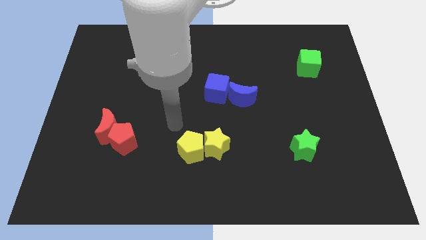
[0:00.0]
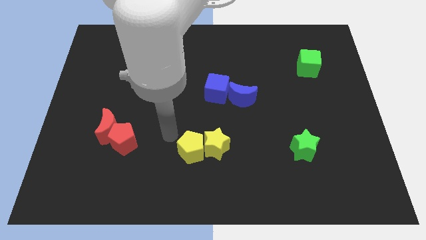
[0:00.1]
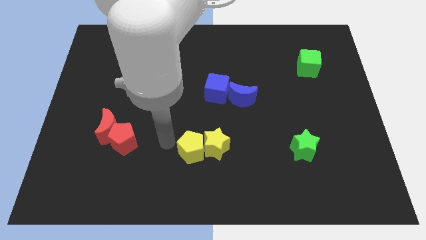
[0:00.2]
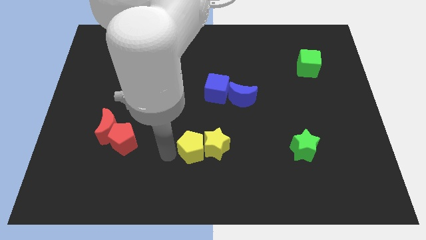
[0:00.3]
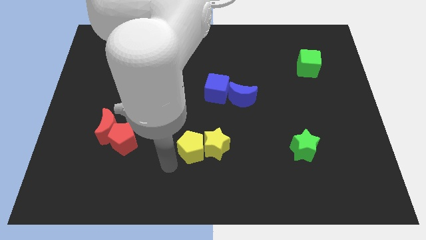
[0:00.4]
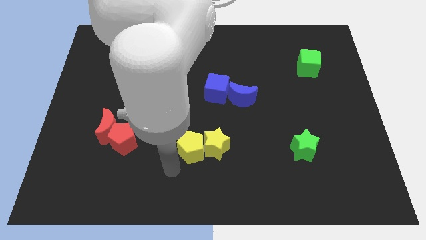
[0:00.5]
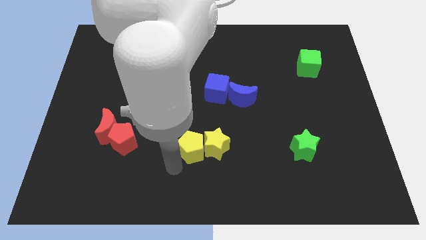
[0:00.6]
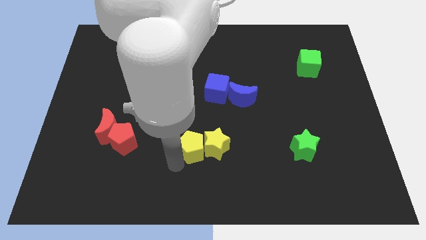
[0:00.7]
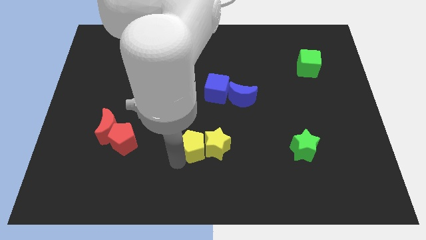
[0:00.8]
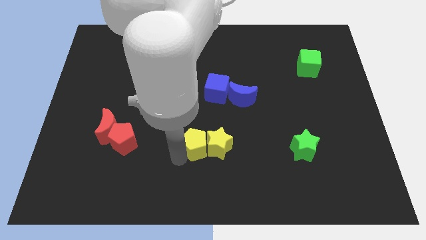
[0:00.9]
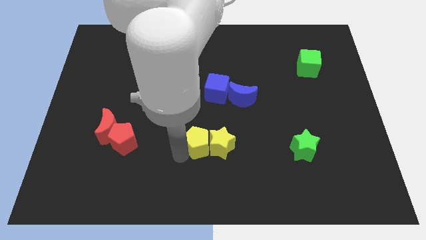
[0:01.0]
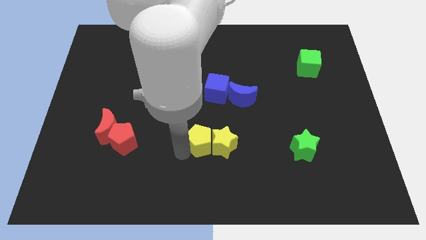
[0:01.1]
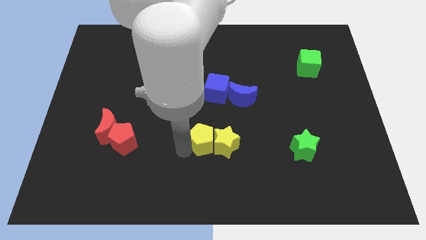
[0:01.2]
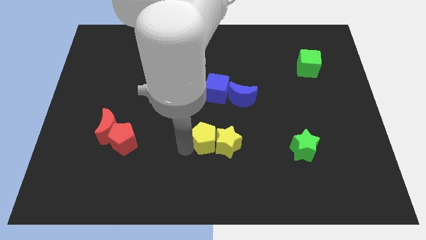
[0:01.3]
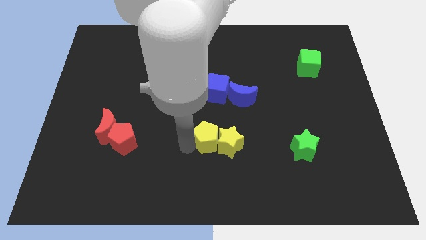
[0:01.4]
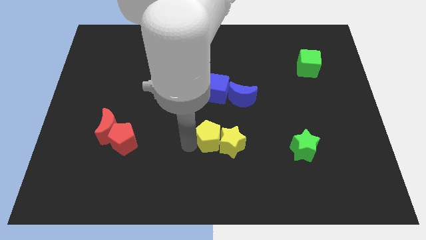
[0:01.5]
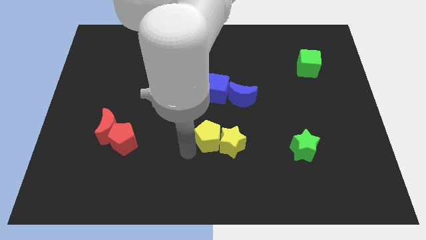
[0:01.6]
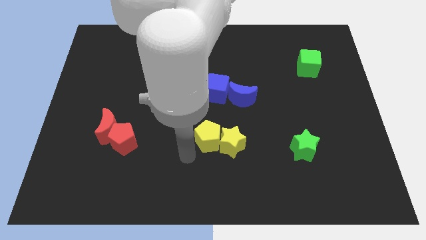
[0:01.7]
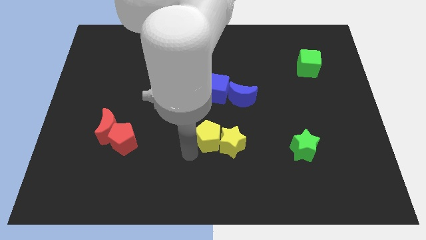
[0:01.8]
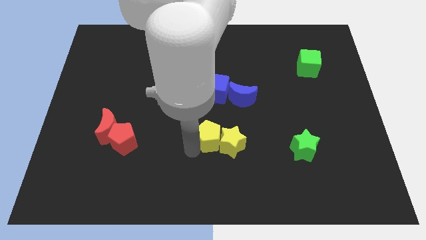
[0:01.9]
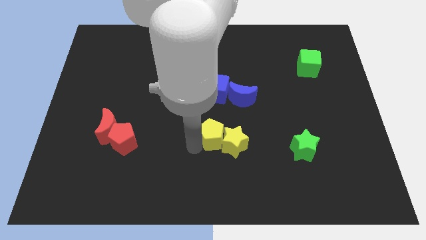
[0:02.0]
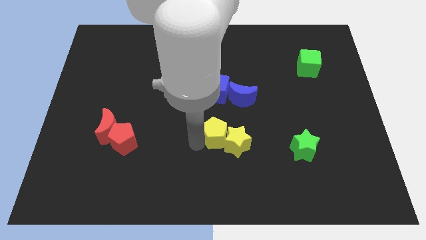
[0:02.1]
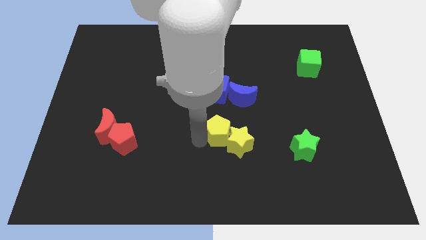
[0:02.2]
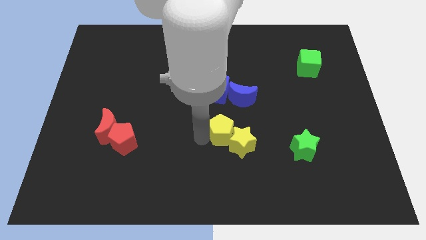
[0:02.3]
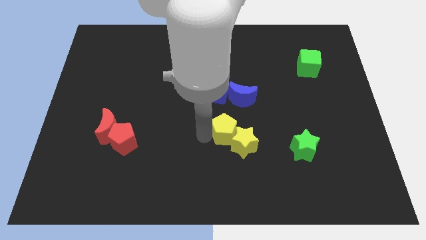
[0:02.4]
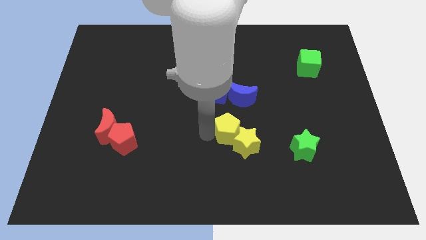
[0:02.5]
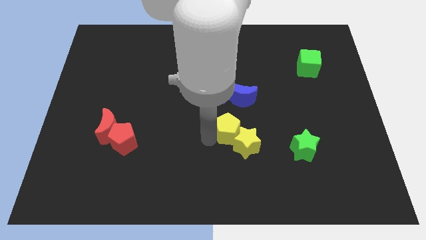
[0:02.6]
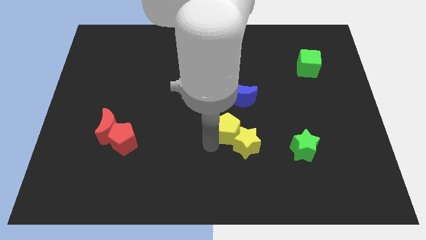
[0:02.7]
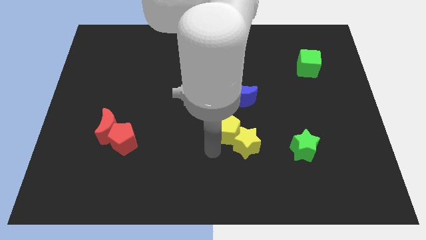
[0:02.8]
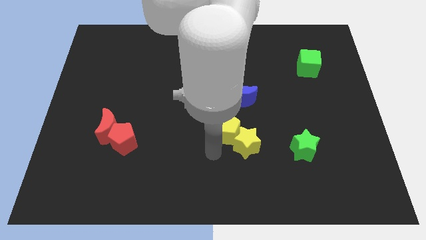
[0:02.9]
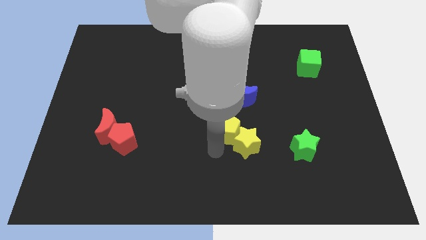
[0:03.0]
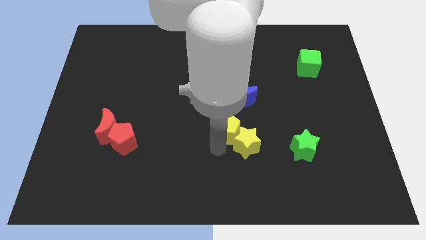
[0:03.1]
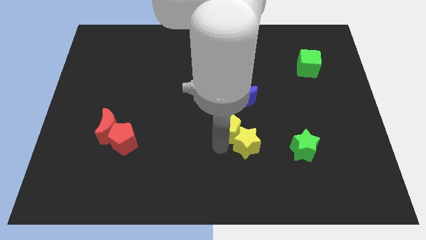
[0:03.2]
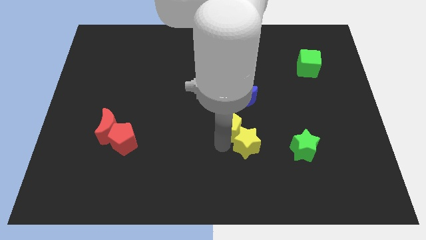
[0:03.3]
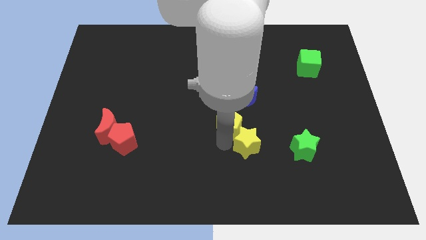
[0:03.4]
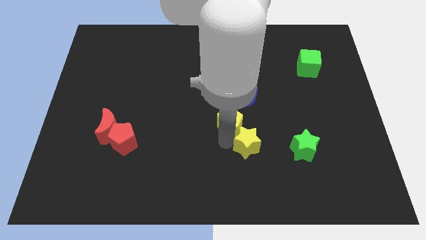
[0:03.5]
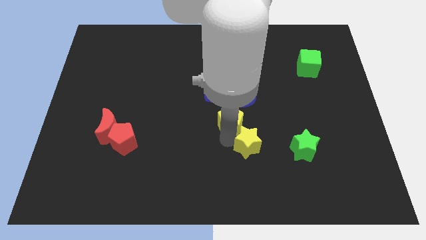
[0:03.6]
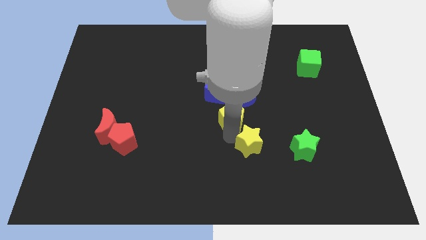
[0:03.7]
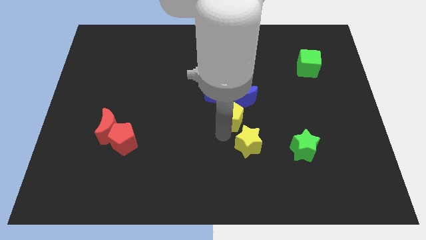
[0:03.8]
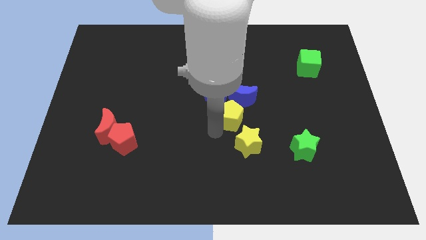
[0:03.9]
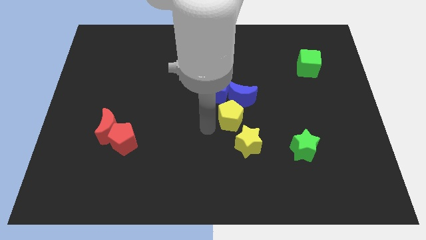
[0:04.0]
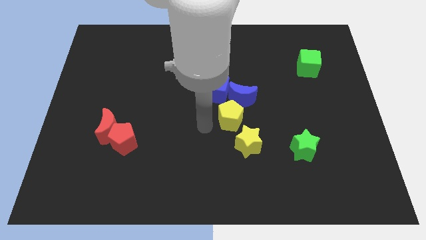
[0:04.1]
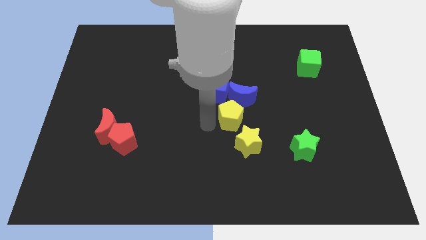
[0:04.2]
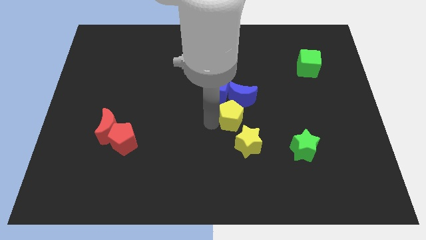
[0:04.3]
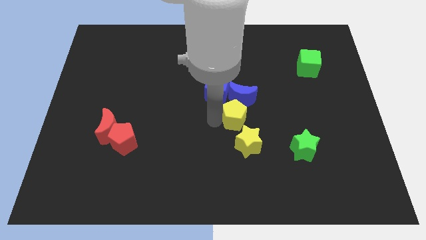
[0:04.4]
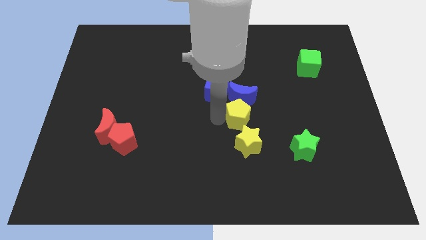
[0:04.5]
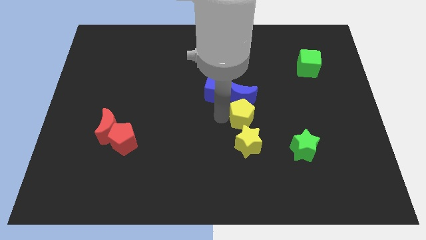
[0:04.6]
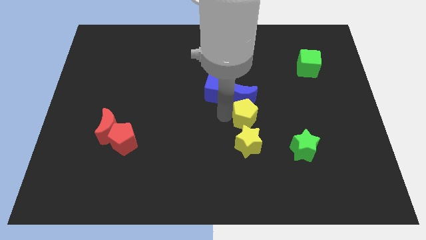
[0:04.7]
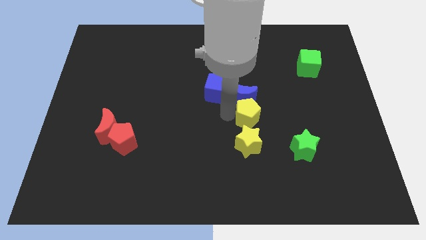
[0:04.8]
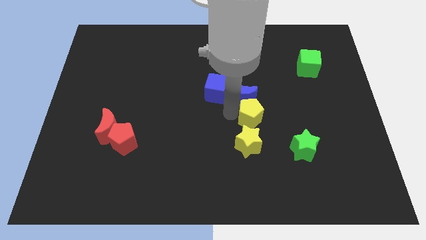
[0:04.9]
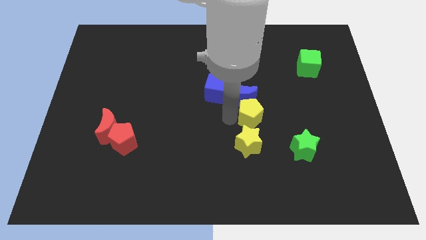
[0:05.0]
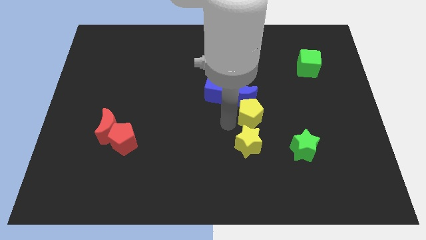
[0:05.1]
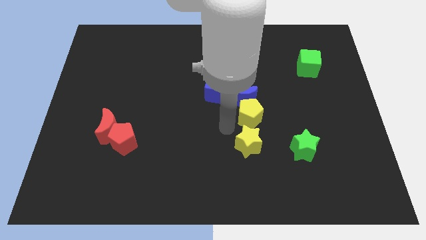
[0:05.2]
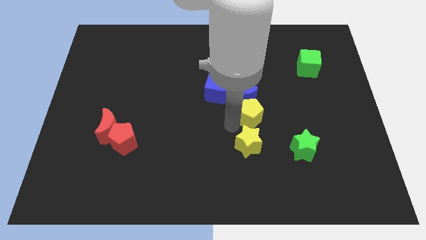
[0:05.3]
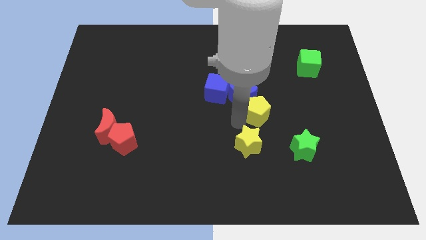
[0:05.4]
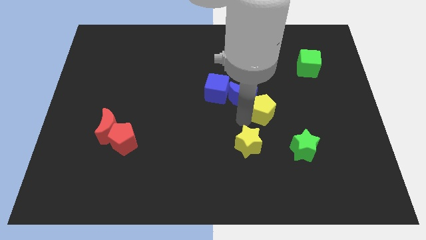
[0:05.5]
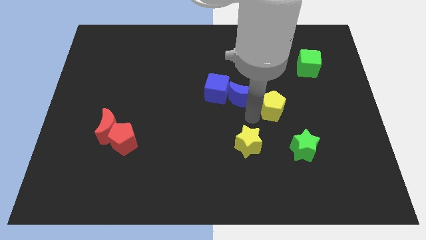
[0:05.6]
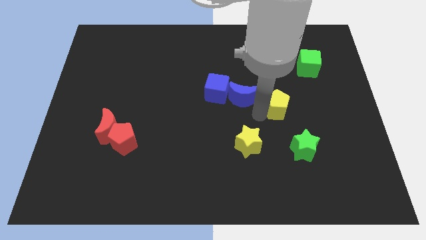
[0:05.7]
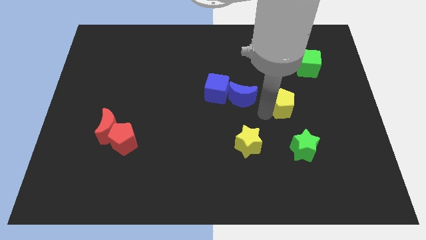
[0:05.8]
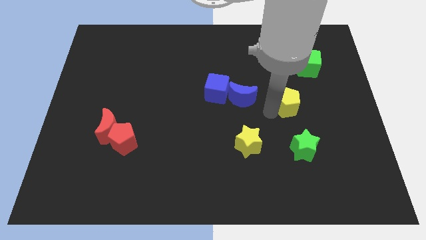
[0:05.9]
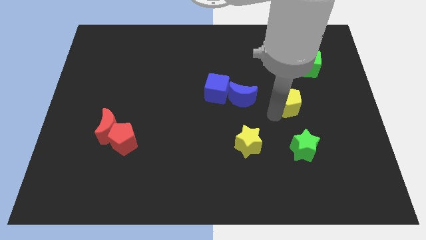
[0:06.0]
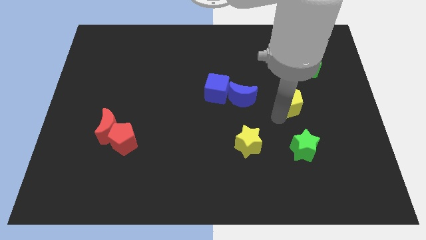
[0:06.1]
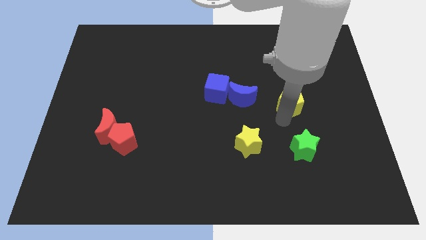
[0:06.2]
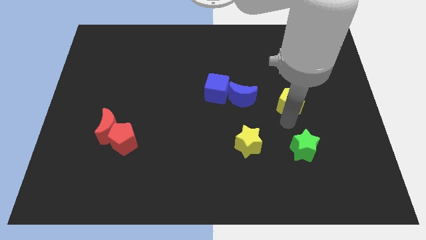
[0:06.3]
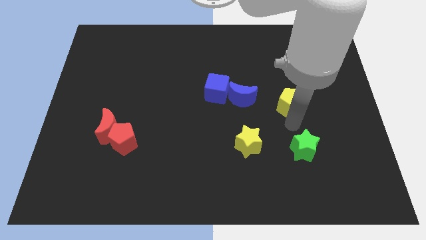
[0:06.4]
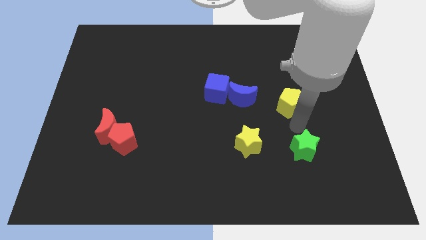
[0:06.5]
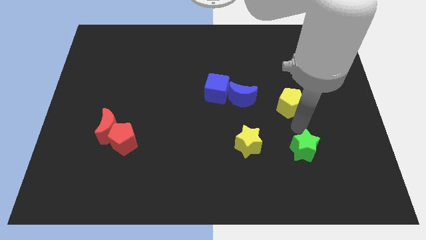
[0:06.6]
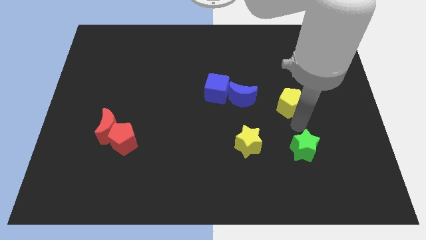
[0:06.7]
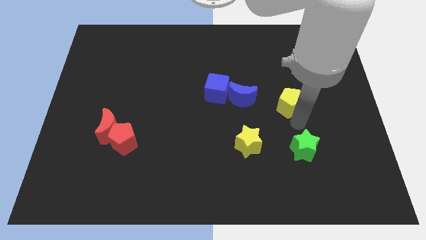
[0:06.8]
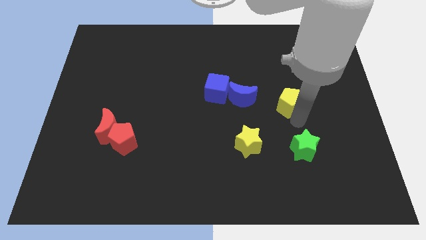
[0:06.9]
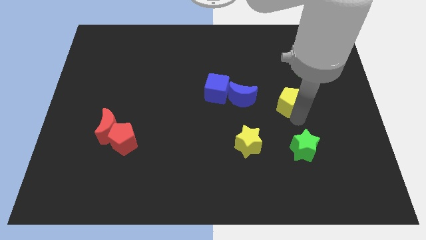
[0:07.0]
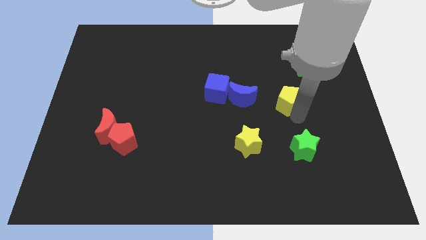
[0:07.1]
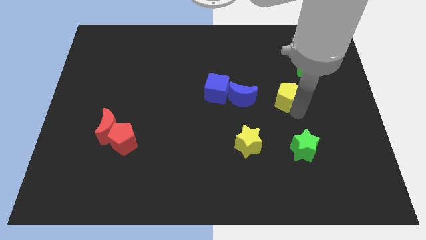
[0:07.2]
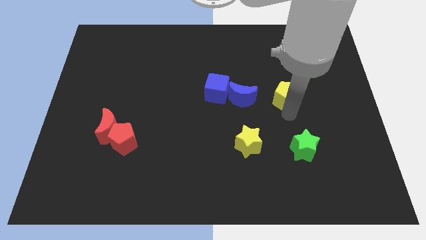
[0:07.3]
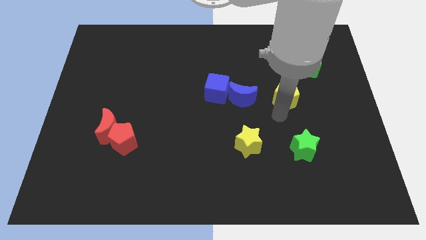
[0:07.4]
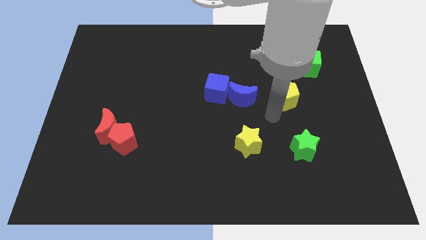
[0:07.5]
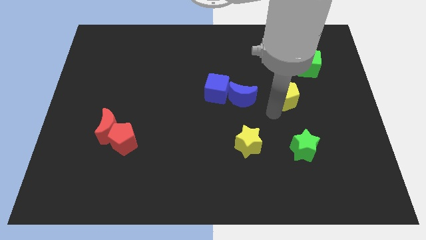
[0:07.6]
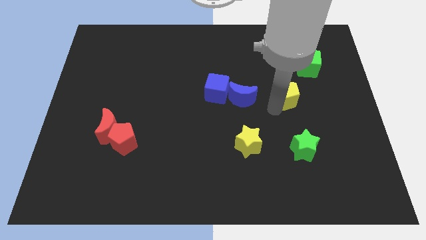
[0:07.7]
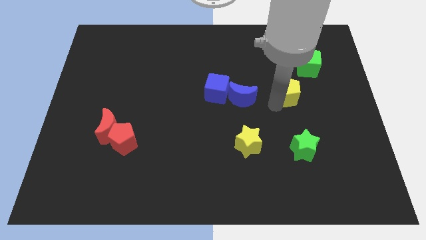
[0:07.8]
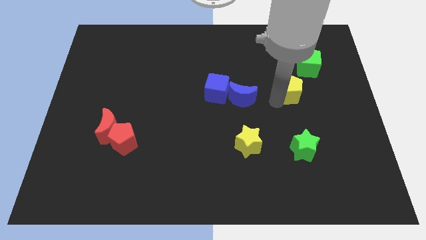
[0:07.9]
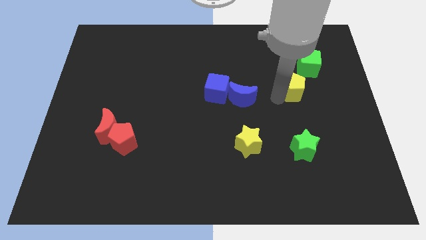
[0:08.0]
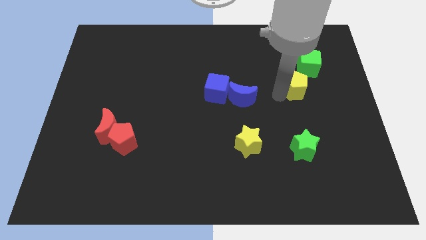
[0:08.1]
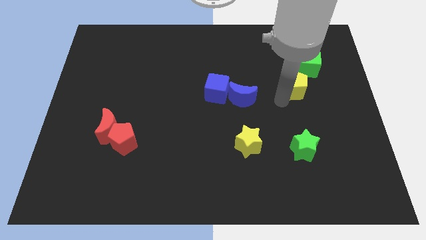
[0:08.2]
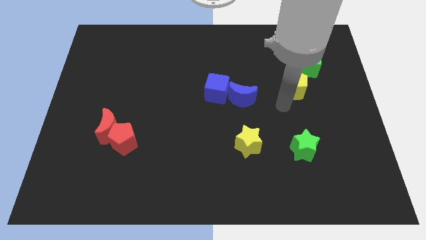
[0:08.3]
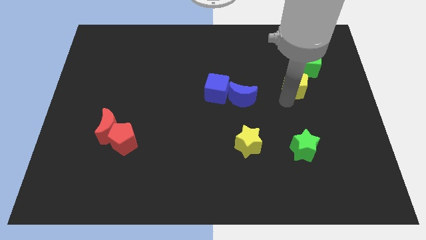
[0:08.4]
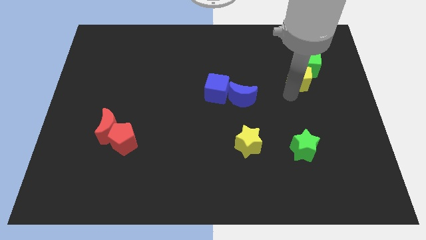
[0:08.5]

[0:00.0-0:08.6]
push the yellow pentagon towards the green cube
